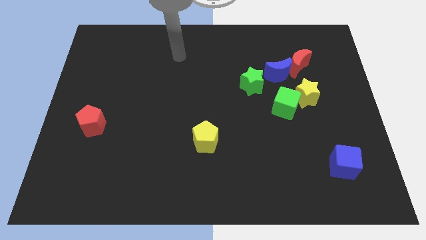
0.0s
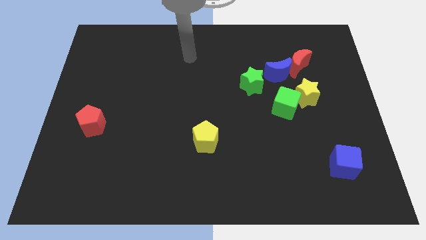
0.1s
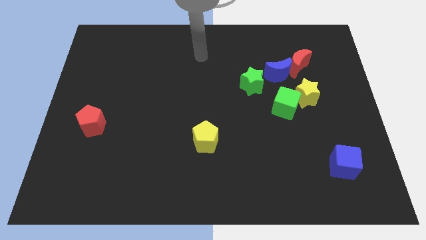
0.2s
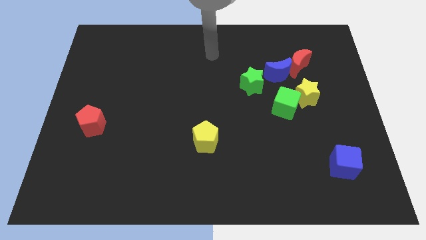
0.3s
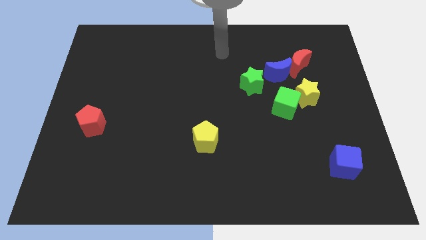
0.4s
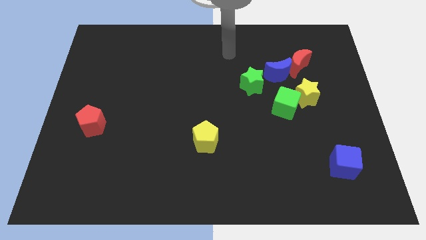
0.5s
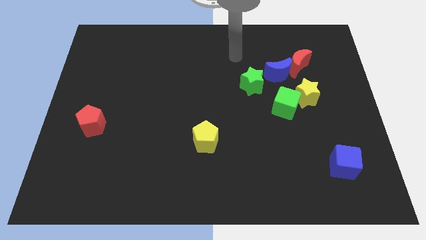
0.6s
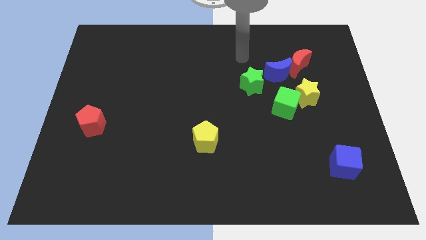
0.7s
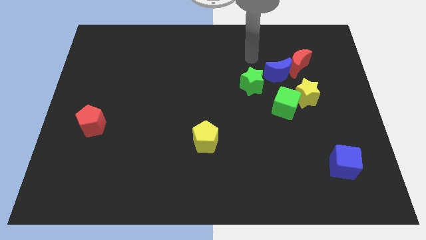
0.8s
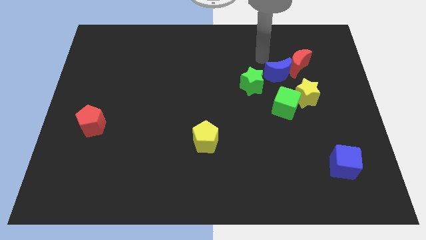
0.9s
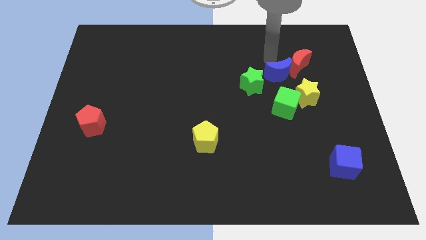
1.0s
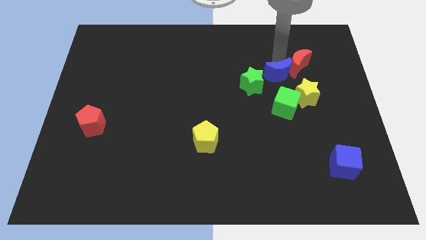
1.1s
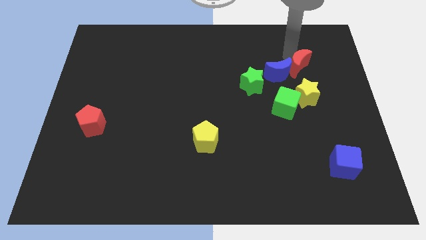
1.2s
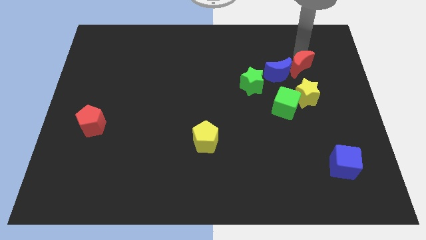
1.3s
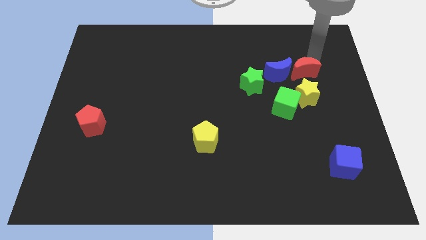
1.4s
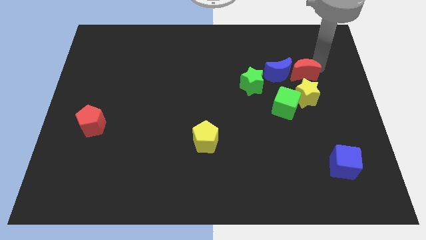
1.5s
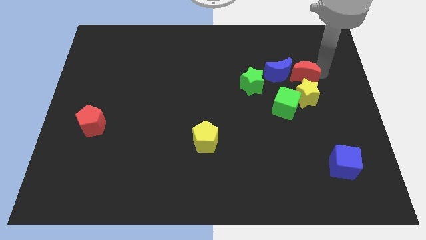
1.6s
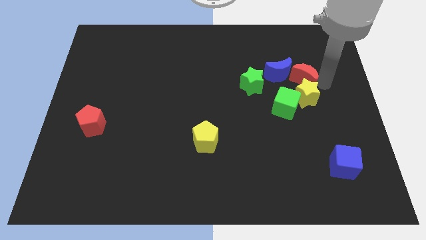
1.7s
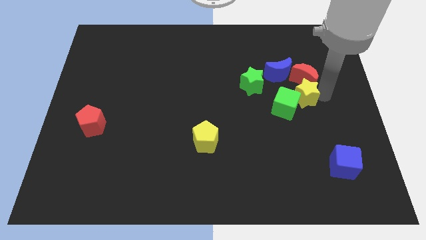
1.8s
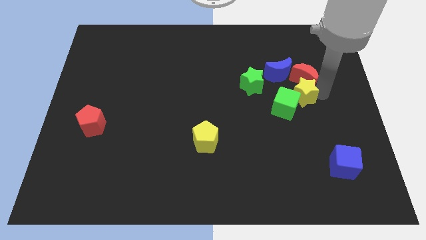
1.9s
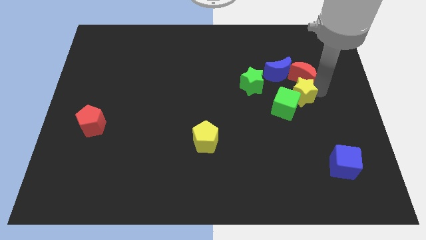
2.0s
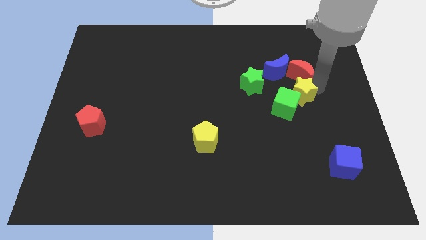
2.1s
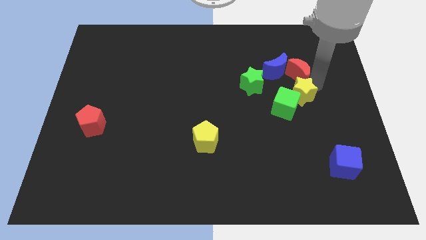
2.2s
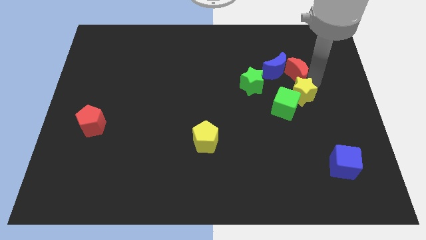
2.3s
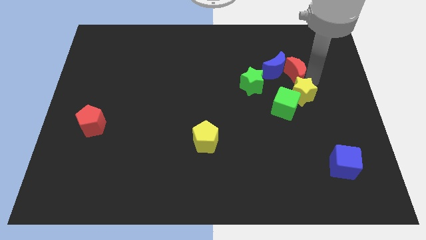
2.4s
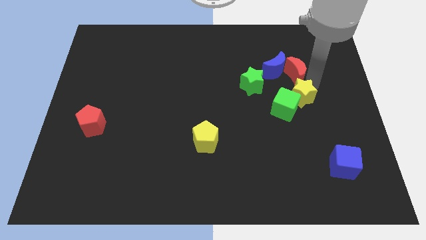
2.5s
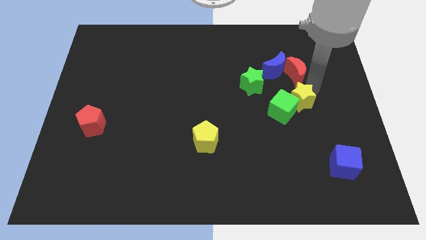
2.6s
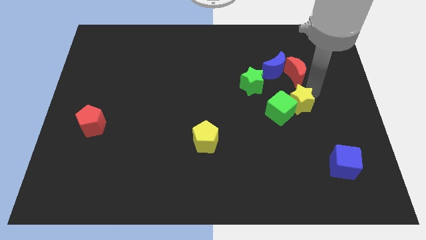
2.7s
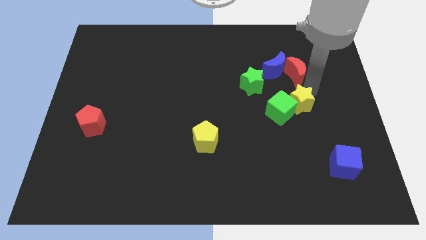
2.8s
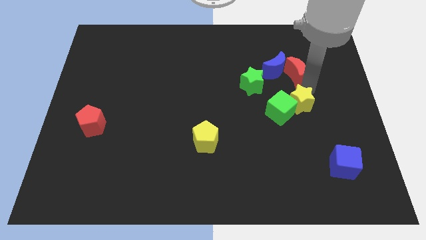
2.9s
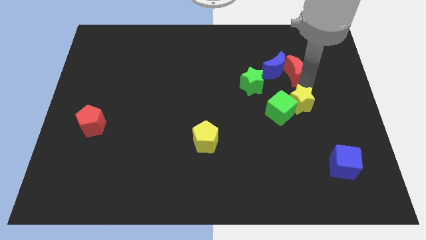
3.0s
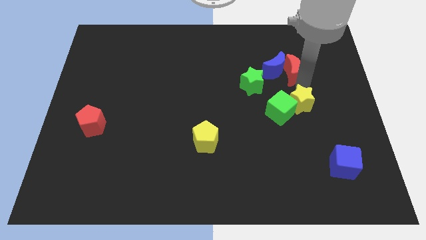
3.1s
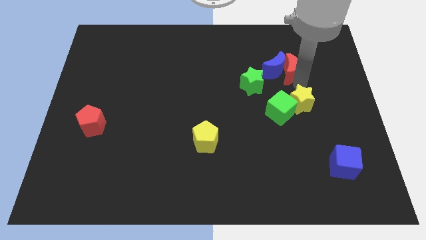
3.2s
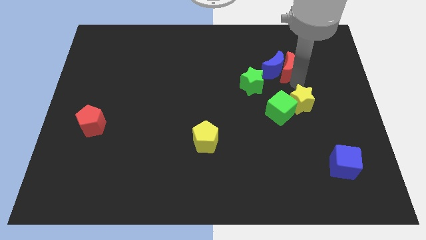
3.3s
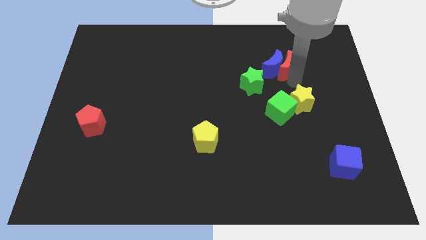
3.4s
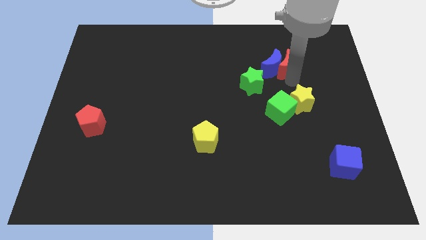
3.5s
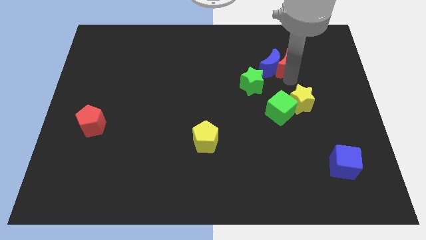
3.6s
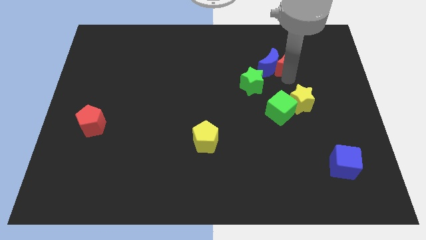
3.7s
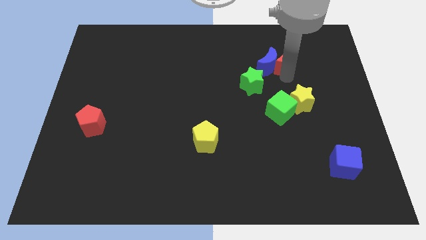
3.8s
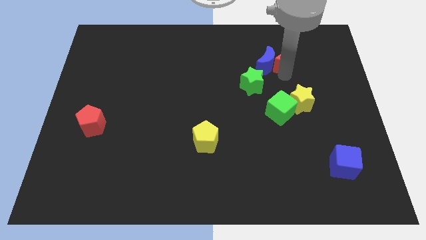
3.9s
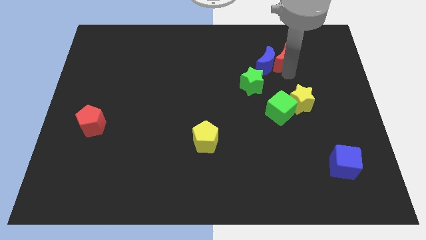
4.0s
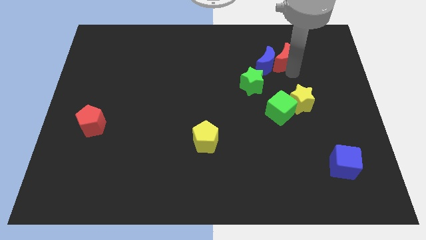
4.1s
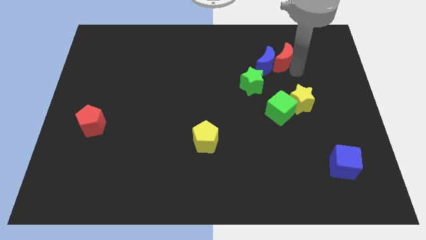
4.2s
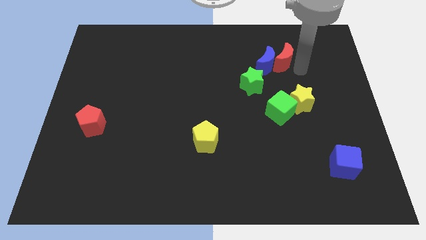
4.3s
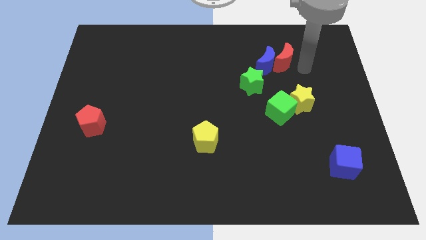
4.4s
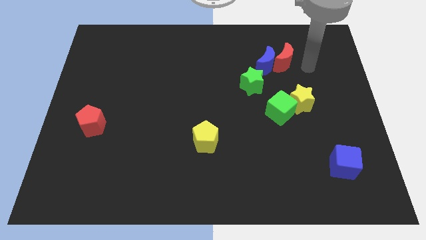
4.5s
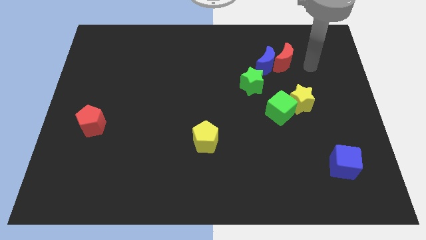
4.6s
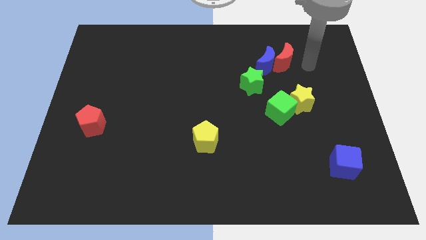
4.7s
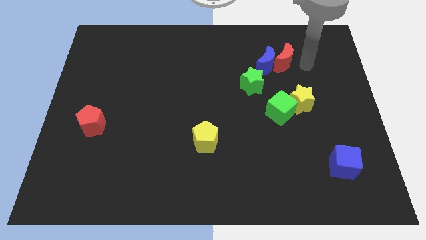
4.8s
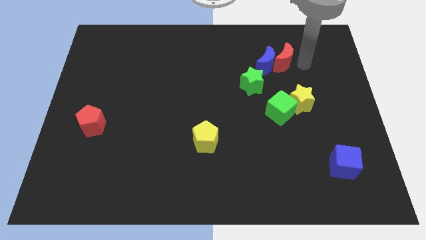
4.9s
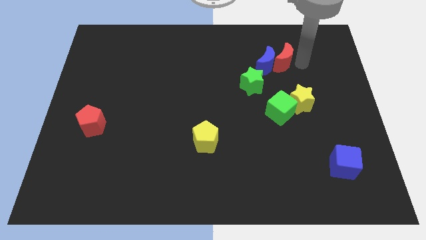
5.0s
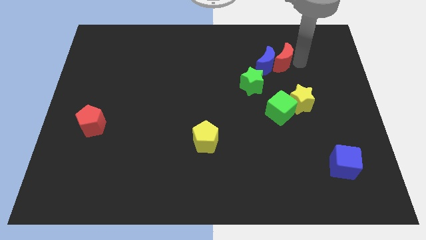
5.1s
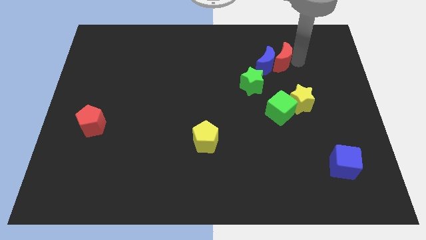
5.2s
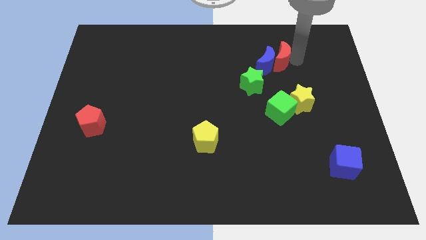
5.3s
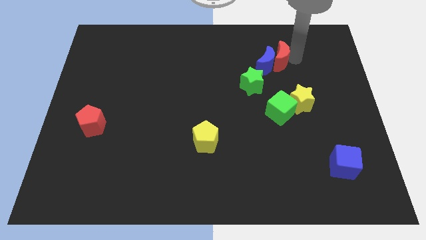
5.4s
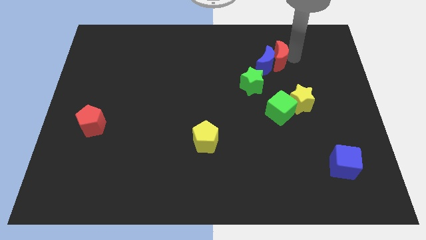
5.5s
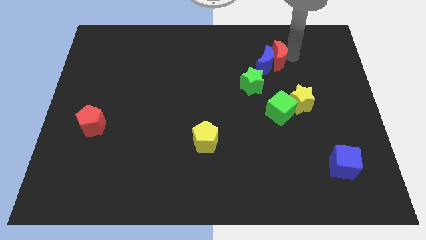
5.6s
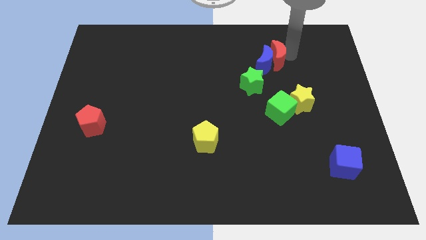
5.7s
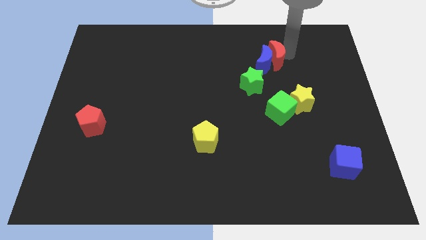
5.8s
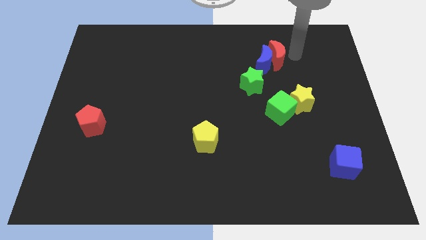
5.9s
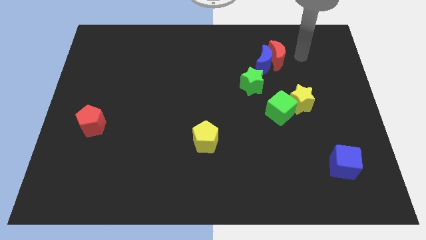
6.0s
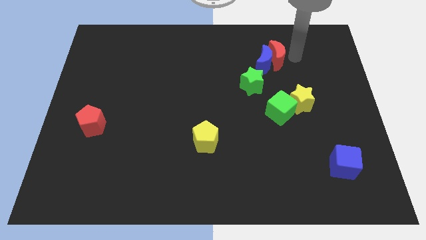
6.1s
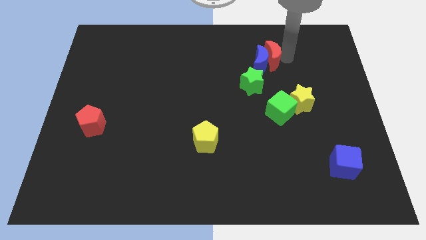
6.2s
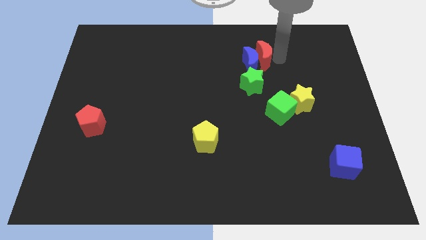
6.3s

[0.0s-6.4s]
push the red moon somewhat left

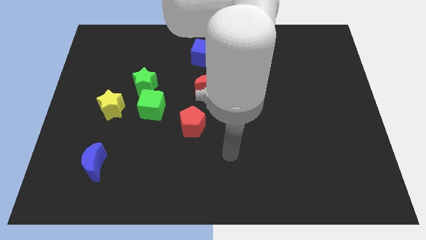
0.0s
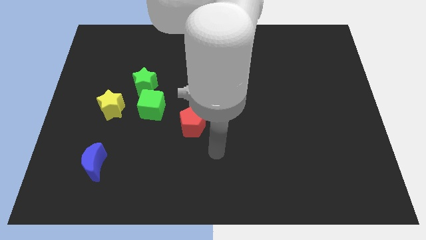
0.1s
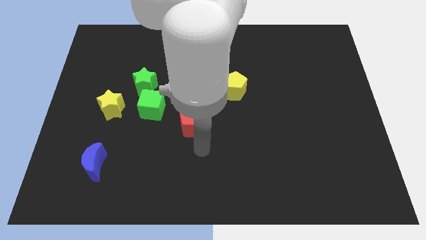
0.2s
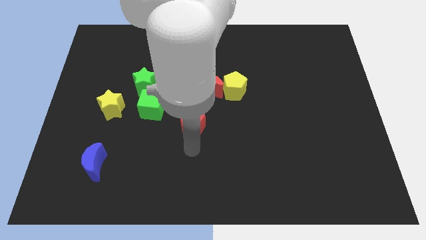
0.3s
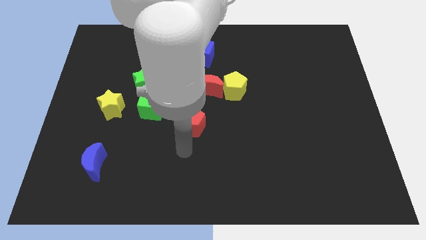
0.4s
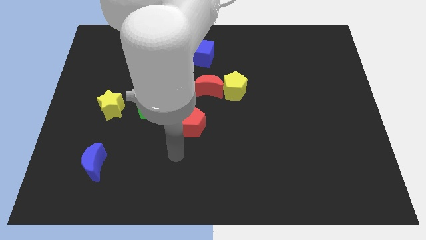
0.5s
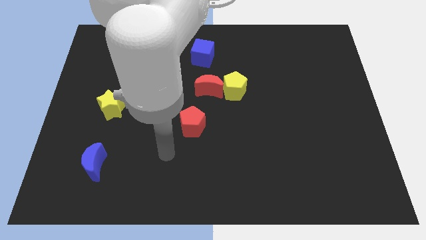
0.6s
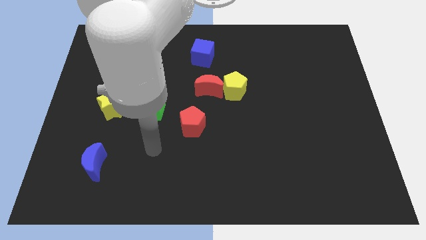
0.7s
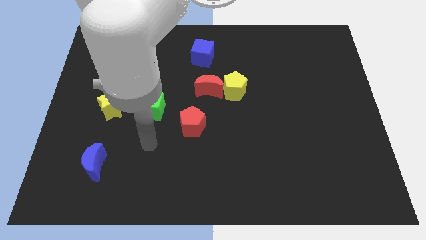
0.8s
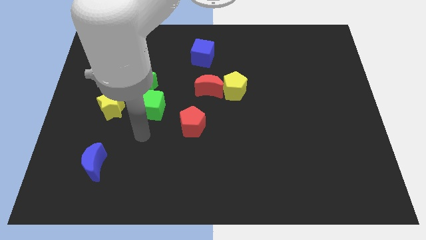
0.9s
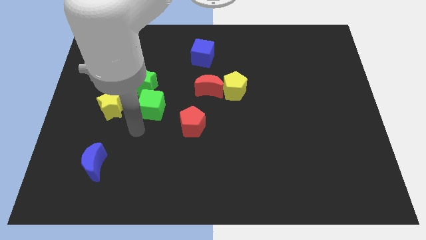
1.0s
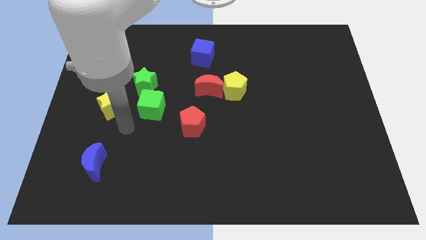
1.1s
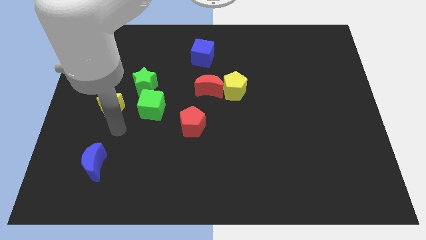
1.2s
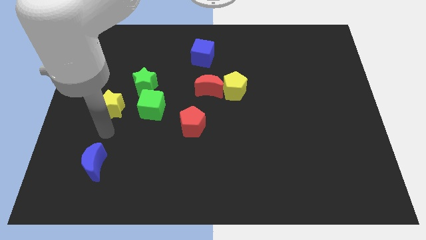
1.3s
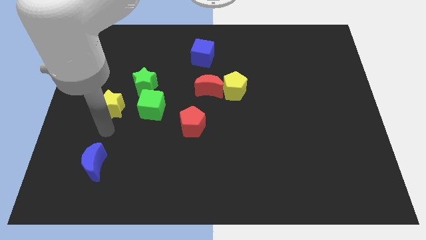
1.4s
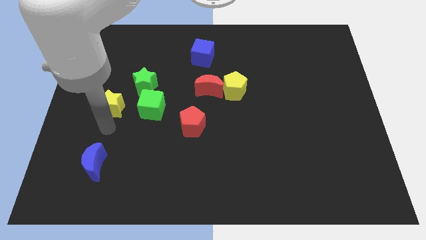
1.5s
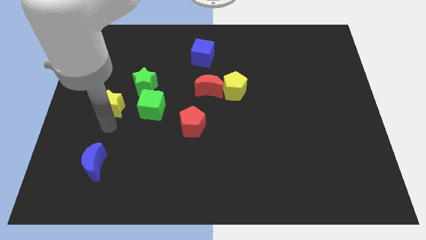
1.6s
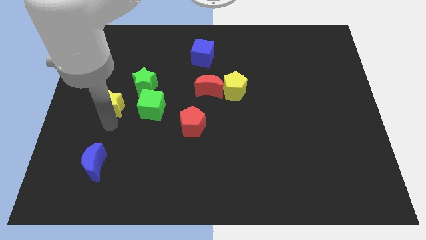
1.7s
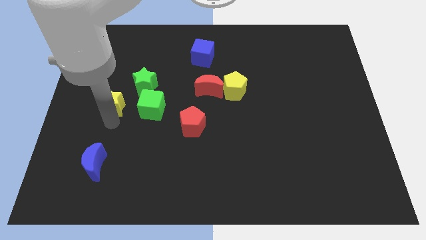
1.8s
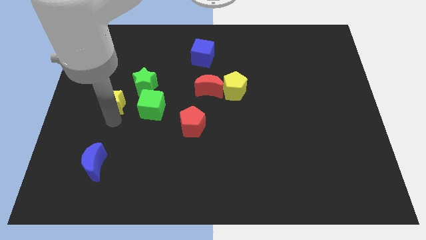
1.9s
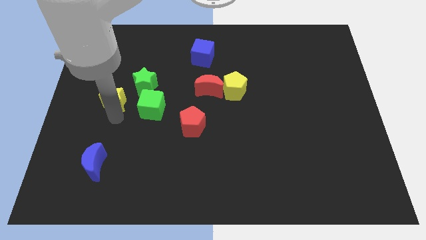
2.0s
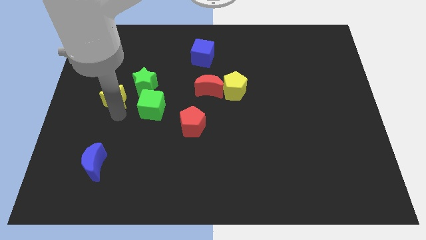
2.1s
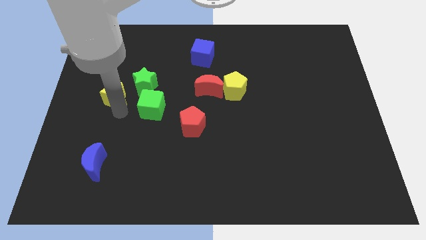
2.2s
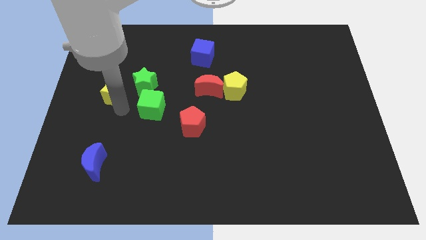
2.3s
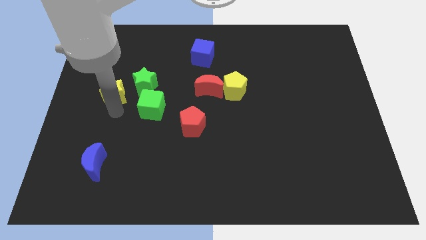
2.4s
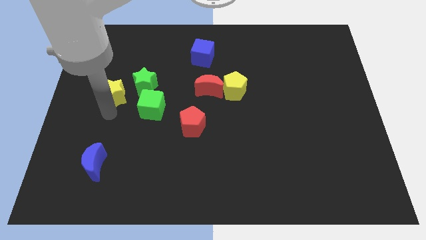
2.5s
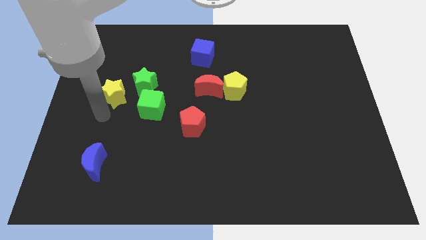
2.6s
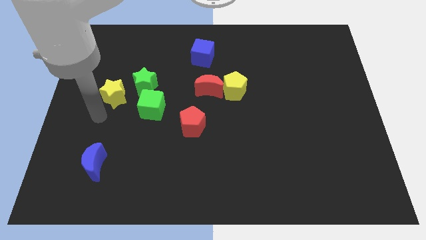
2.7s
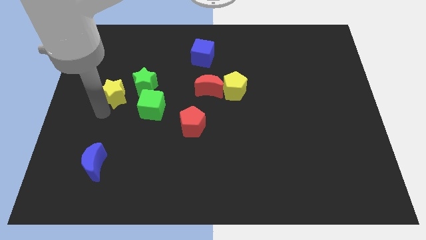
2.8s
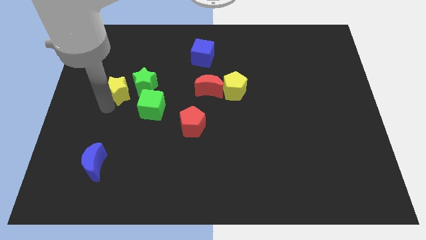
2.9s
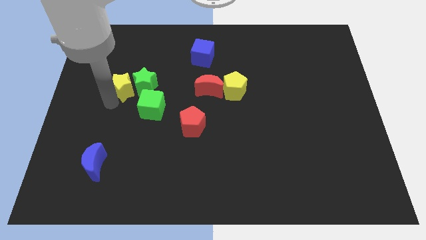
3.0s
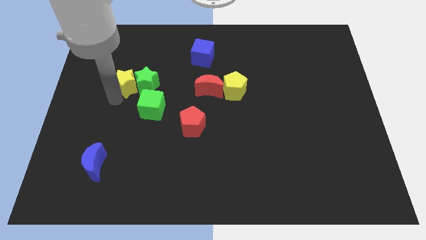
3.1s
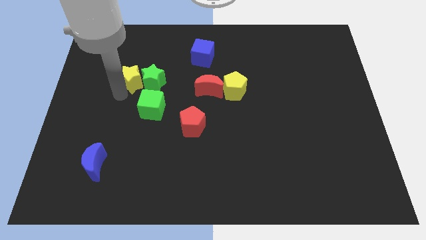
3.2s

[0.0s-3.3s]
slightly move the yellow star diagonally up and right
